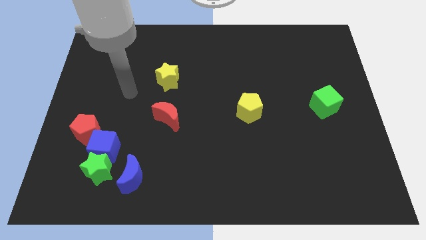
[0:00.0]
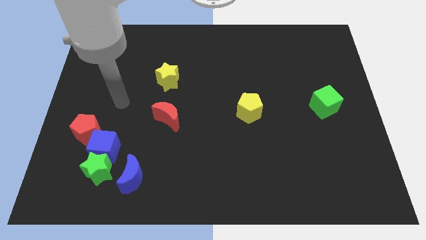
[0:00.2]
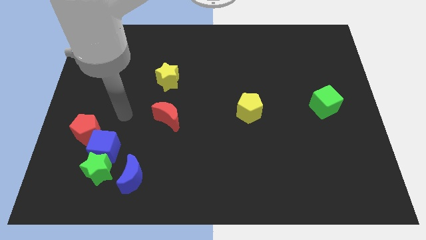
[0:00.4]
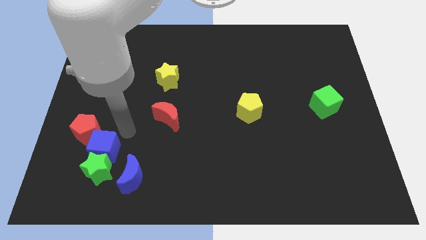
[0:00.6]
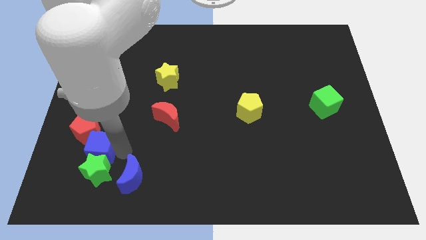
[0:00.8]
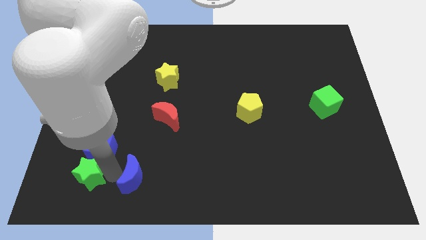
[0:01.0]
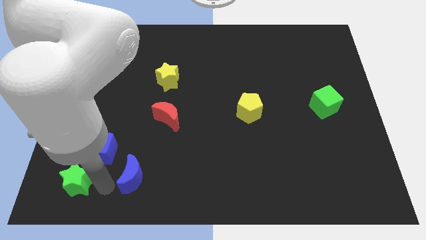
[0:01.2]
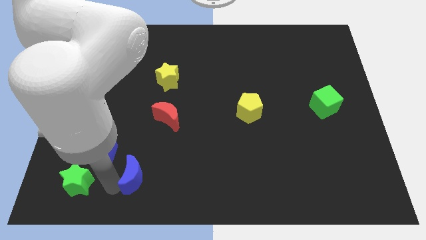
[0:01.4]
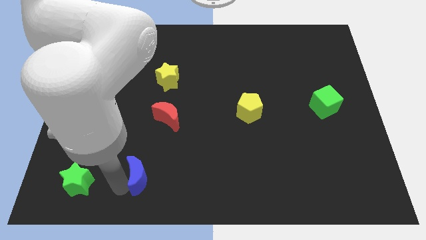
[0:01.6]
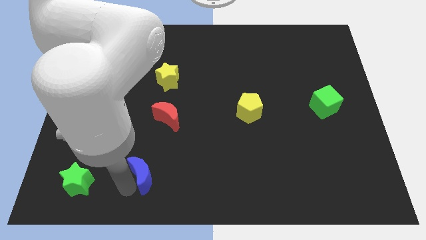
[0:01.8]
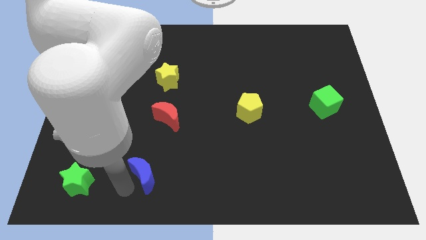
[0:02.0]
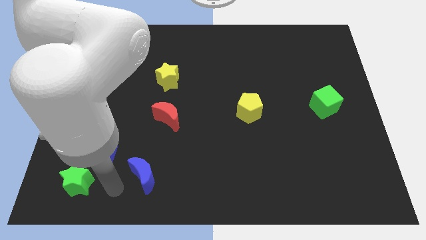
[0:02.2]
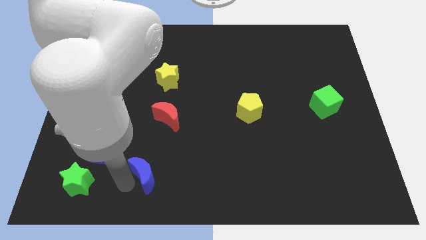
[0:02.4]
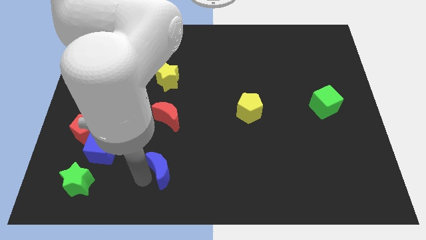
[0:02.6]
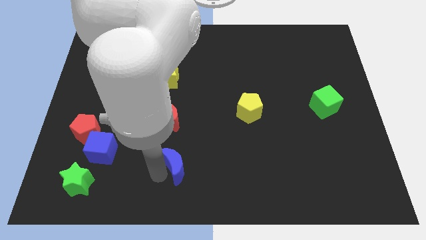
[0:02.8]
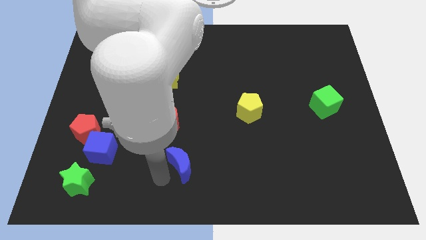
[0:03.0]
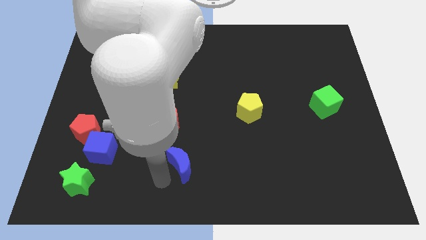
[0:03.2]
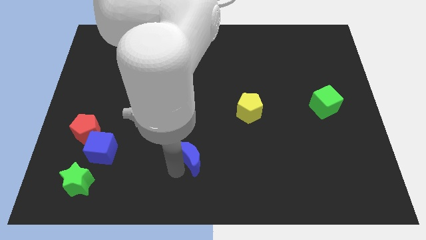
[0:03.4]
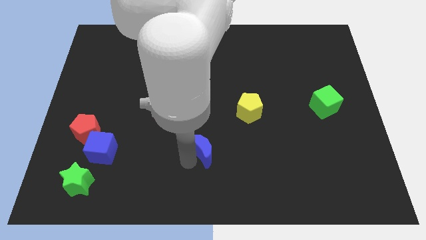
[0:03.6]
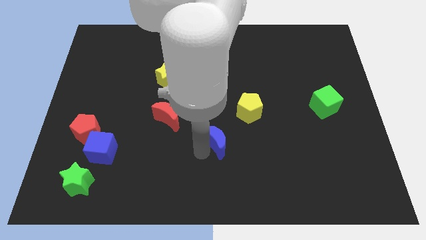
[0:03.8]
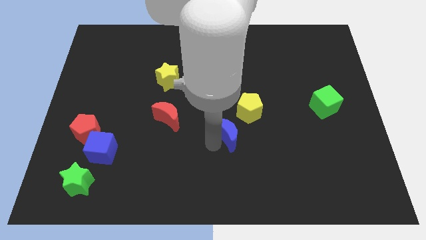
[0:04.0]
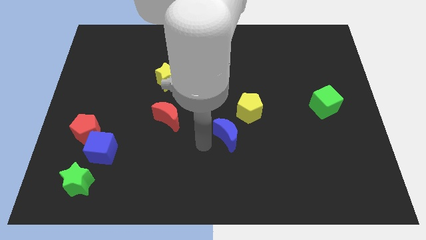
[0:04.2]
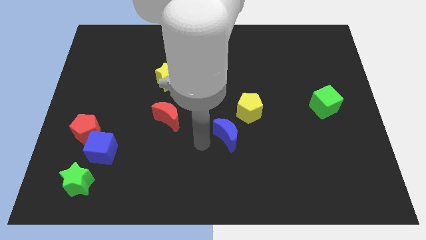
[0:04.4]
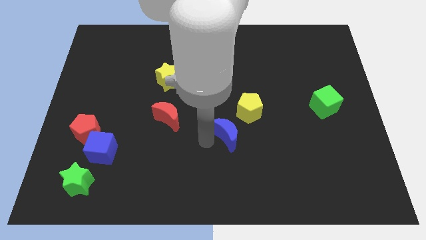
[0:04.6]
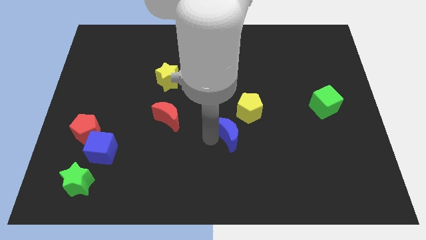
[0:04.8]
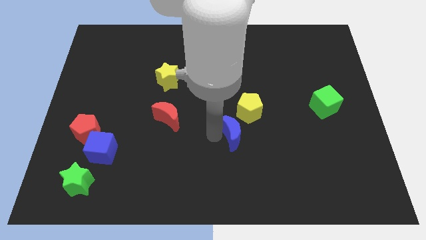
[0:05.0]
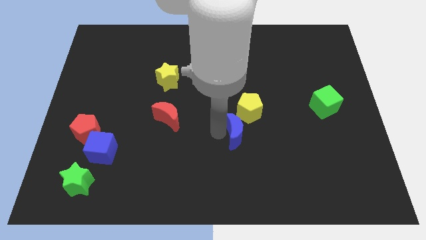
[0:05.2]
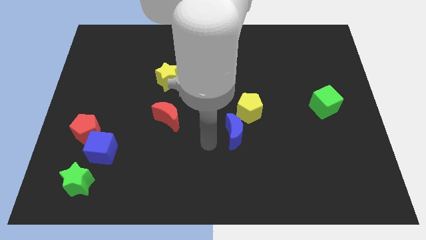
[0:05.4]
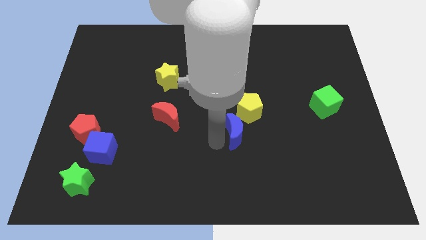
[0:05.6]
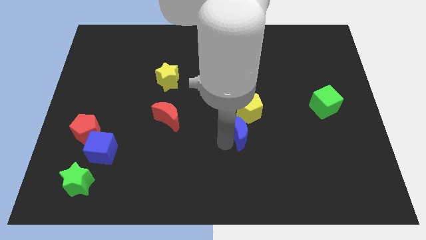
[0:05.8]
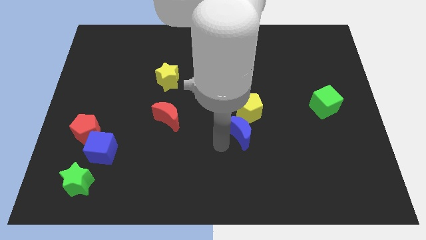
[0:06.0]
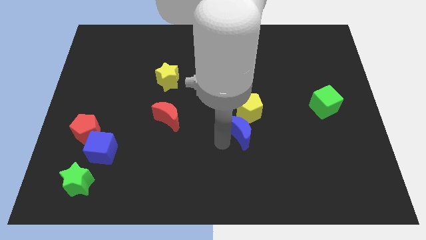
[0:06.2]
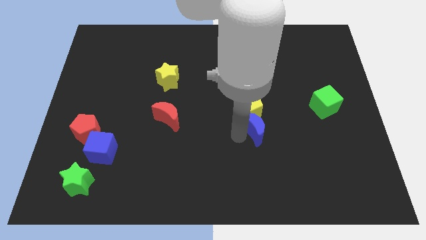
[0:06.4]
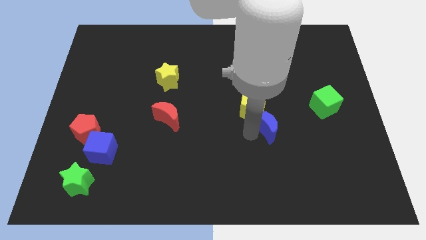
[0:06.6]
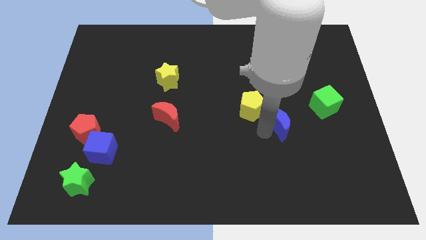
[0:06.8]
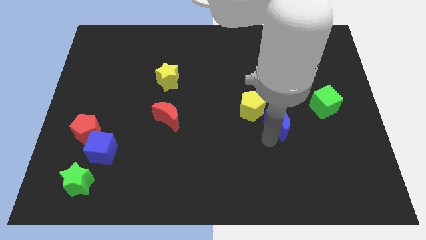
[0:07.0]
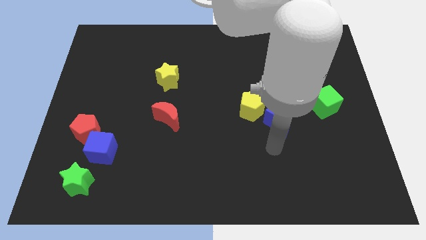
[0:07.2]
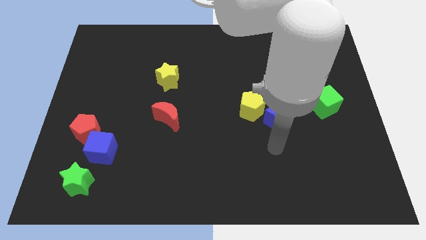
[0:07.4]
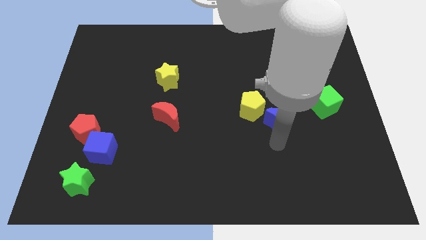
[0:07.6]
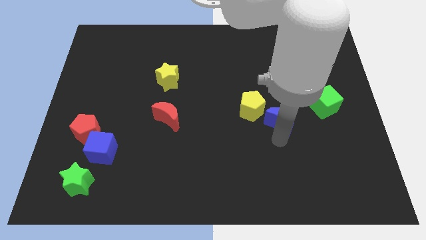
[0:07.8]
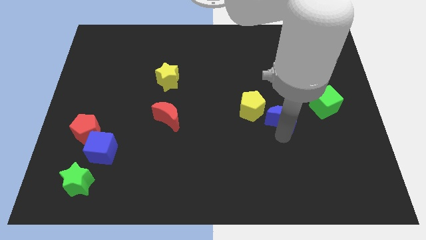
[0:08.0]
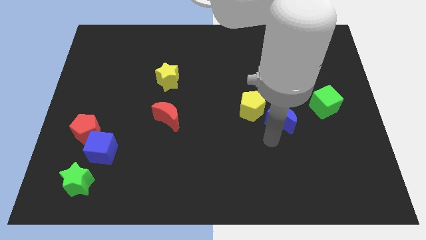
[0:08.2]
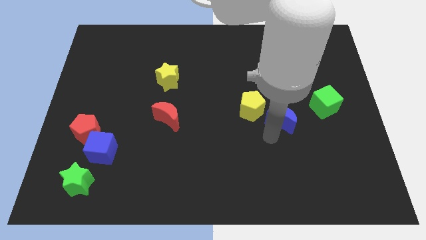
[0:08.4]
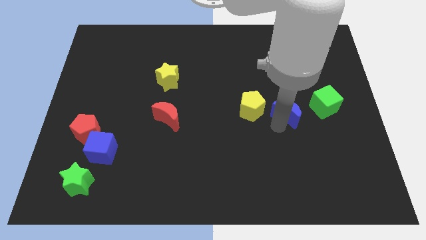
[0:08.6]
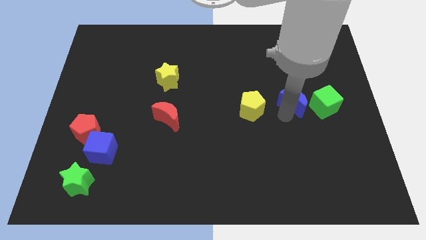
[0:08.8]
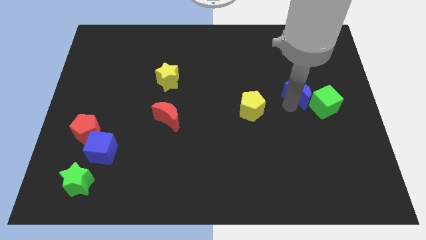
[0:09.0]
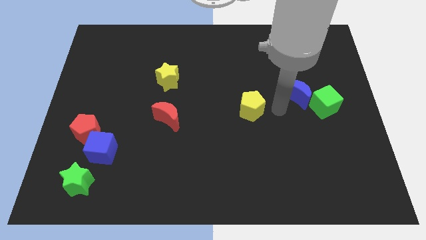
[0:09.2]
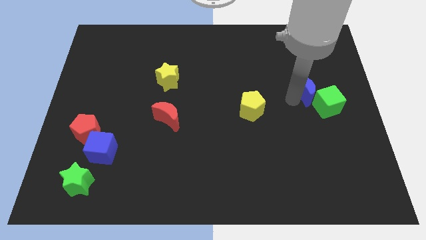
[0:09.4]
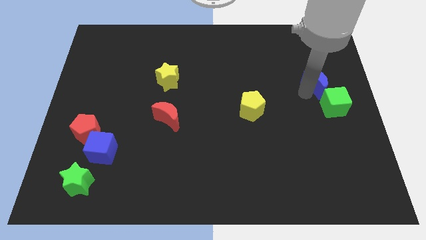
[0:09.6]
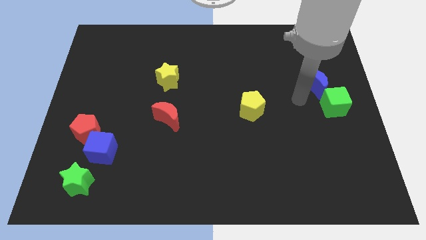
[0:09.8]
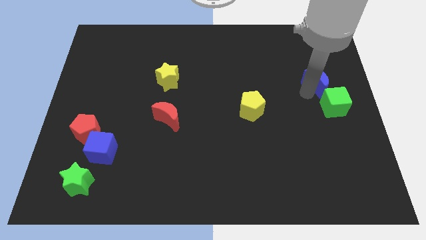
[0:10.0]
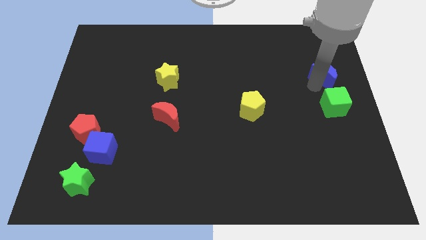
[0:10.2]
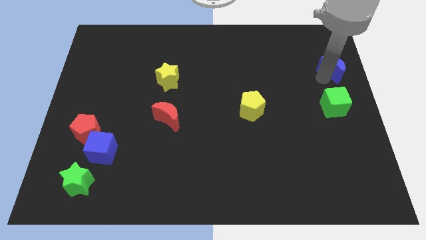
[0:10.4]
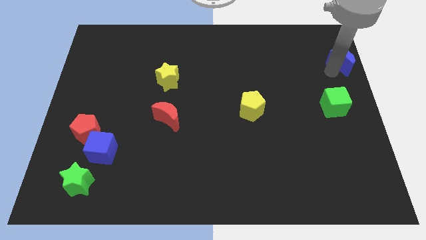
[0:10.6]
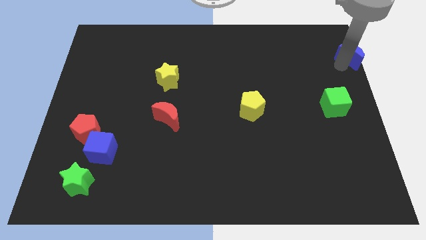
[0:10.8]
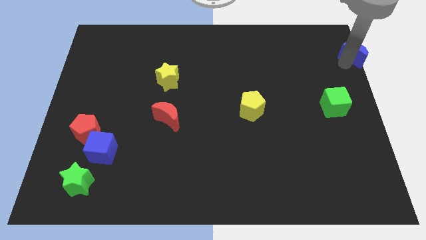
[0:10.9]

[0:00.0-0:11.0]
move the blue moon to the top right corner
